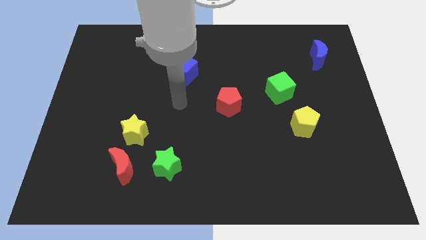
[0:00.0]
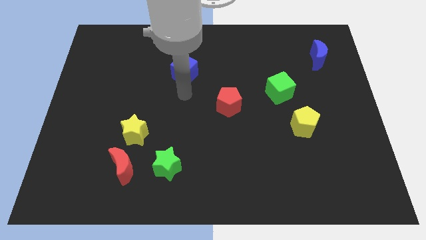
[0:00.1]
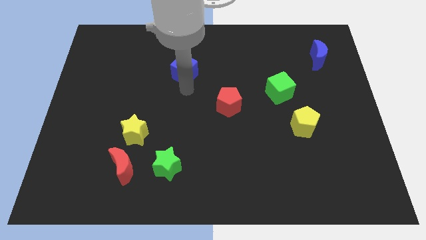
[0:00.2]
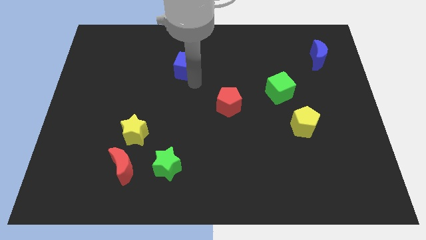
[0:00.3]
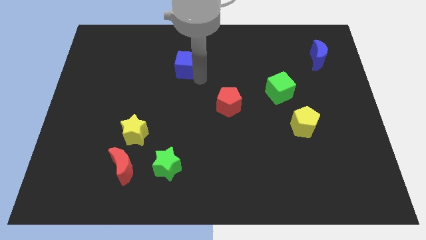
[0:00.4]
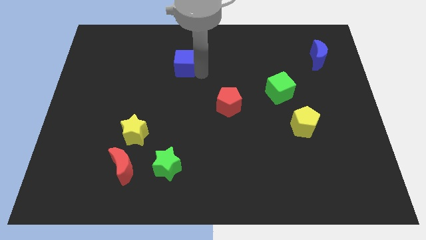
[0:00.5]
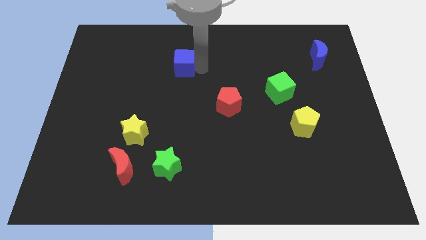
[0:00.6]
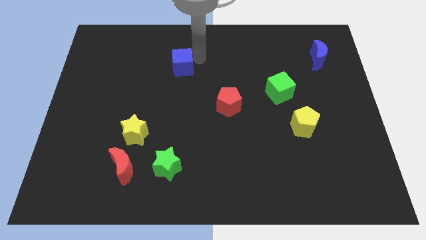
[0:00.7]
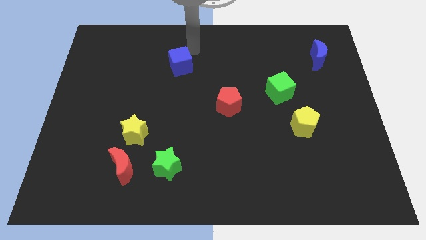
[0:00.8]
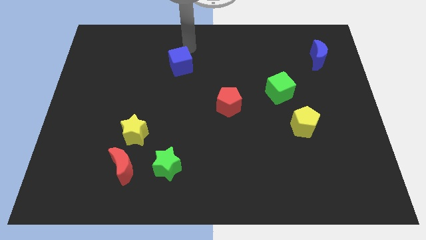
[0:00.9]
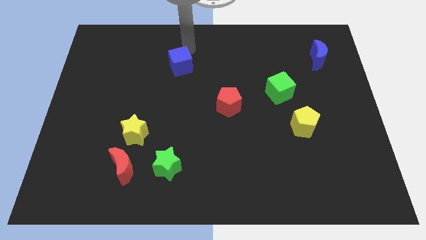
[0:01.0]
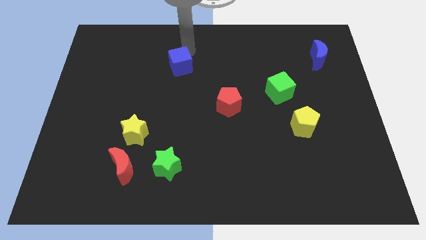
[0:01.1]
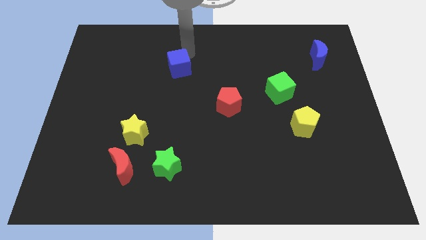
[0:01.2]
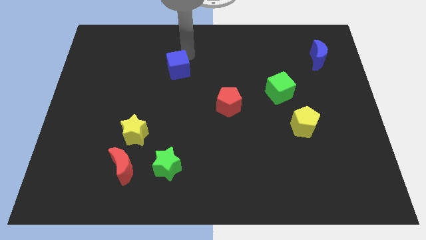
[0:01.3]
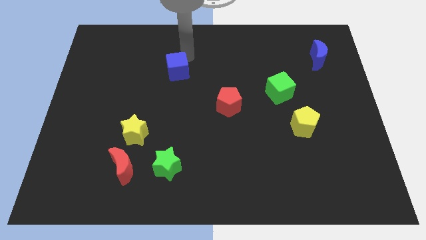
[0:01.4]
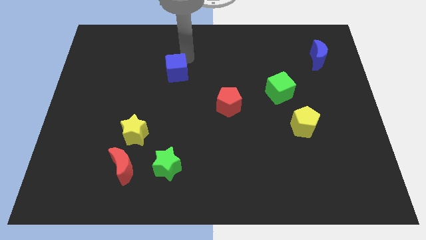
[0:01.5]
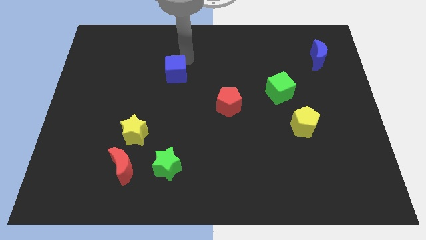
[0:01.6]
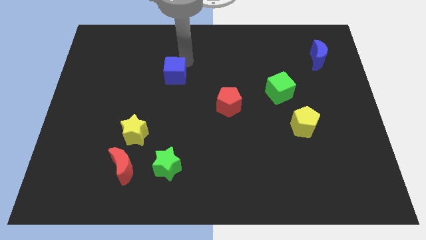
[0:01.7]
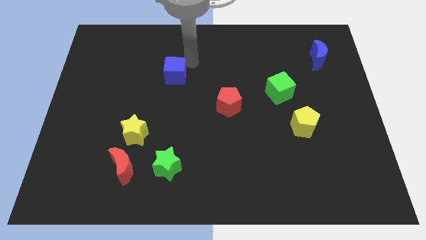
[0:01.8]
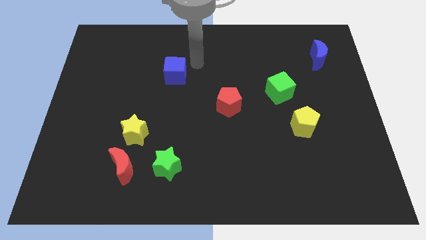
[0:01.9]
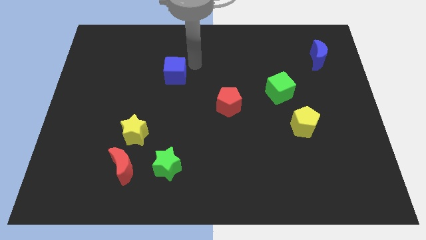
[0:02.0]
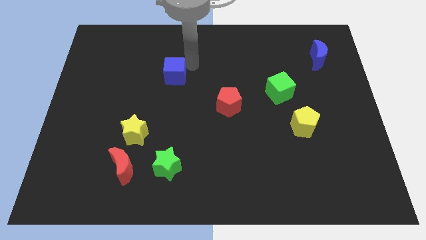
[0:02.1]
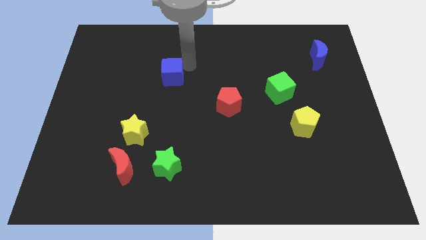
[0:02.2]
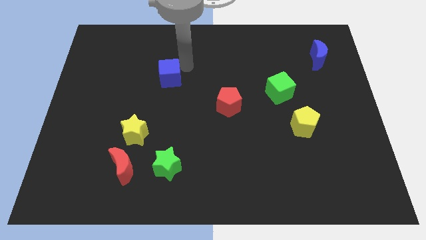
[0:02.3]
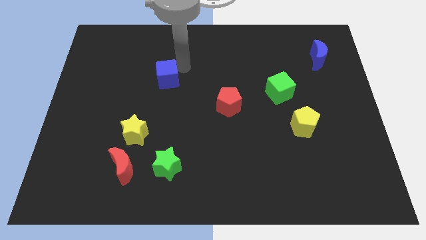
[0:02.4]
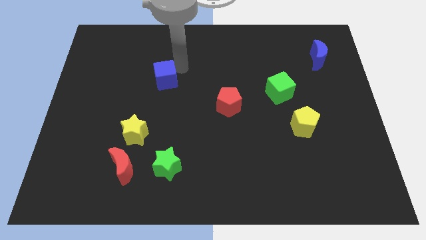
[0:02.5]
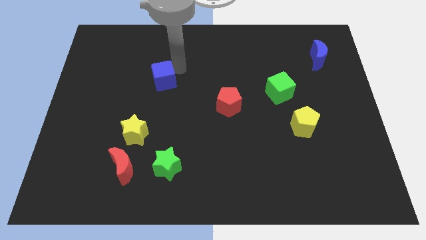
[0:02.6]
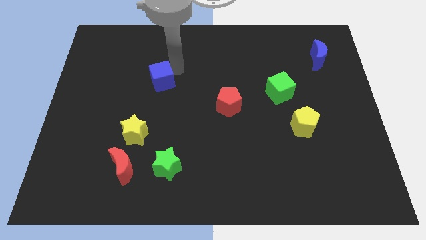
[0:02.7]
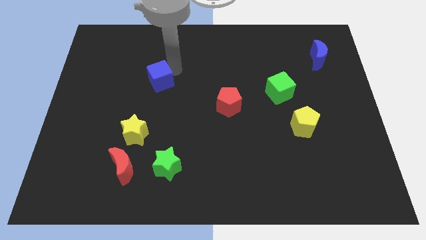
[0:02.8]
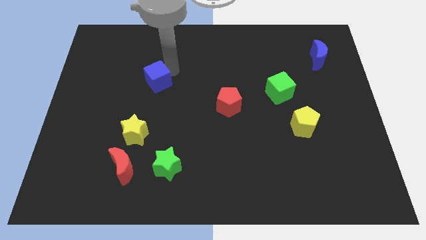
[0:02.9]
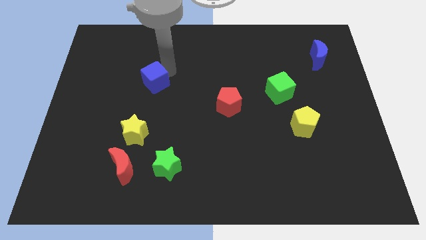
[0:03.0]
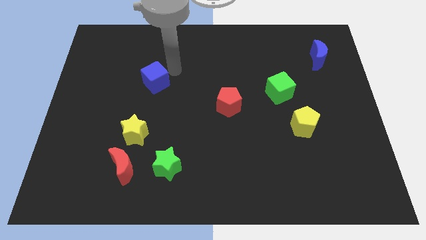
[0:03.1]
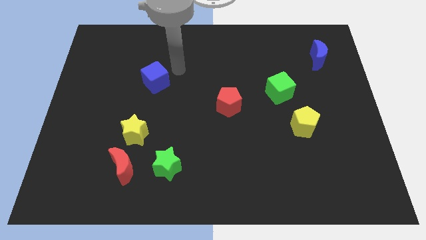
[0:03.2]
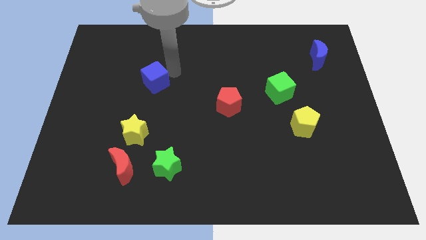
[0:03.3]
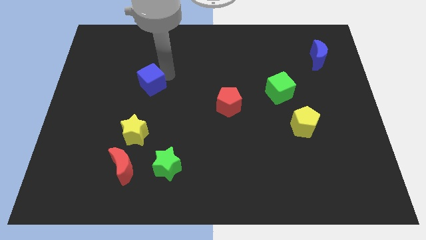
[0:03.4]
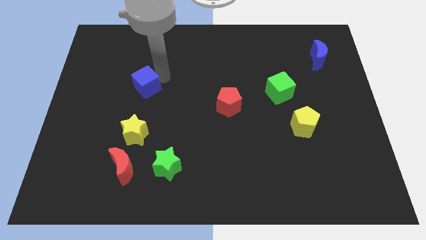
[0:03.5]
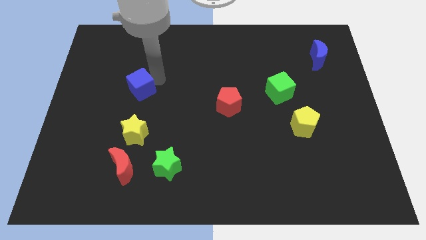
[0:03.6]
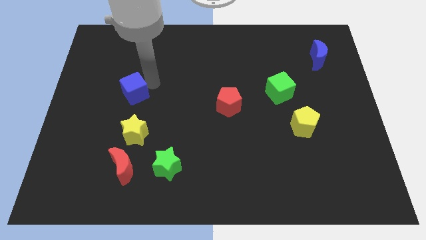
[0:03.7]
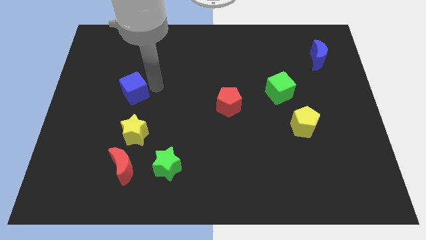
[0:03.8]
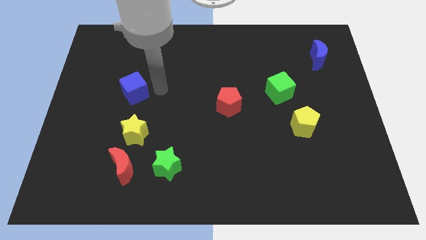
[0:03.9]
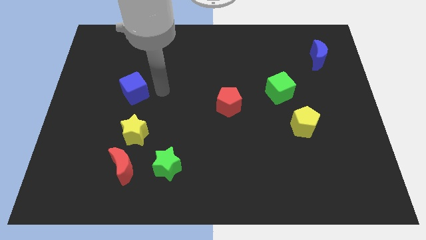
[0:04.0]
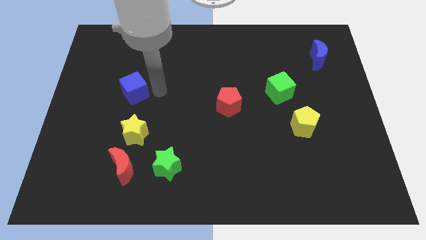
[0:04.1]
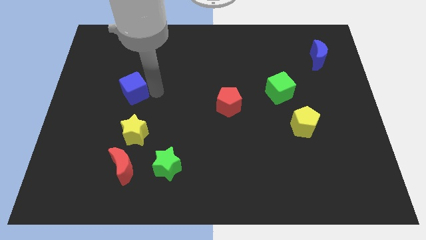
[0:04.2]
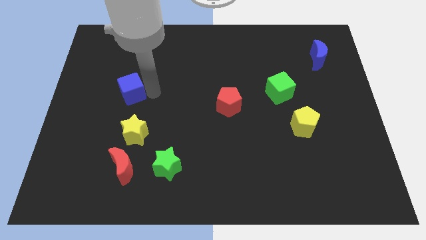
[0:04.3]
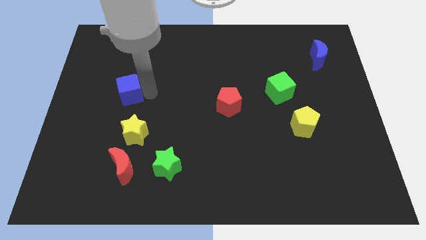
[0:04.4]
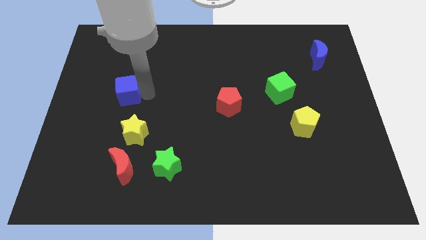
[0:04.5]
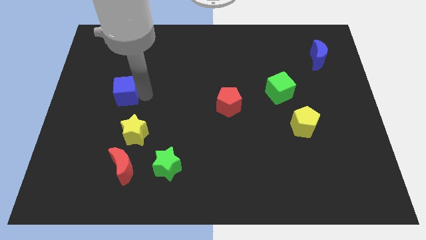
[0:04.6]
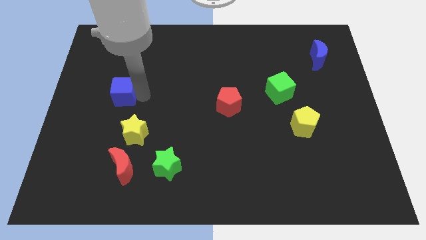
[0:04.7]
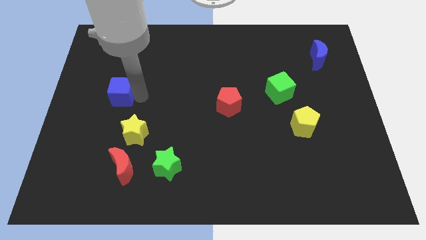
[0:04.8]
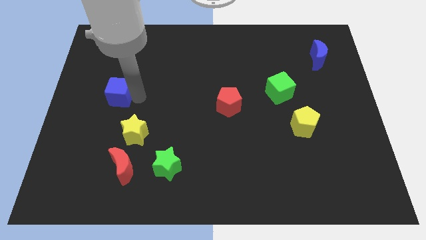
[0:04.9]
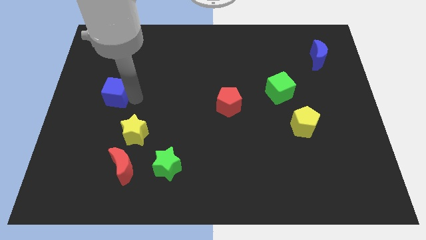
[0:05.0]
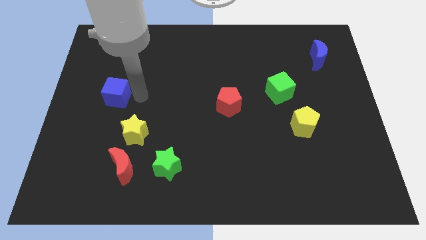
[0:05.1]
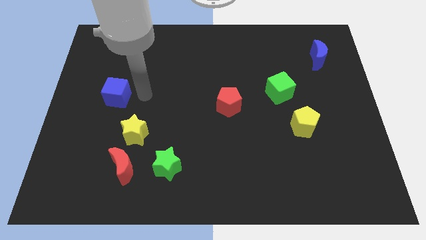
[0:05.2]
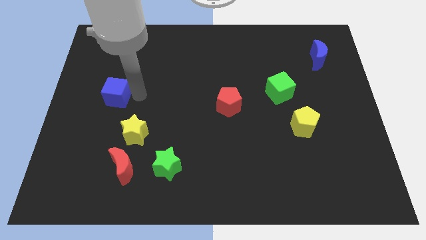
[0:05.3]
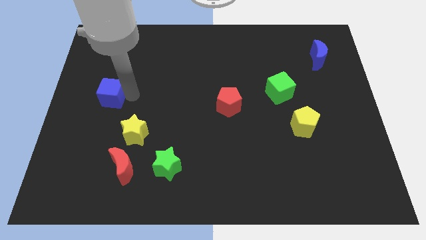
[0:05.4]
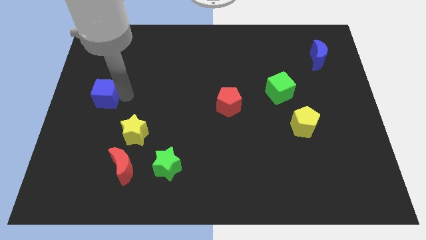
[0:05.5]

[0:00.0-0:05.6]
move the blue cube to the left side of the board

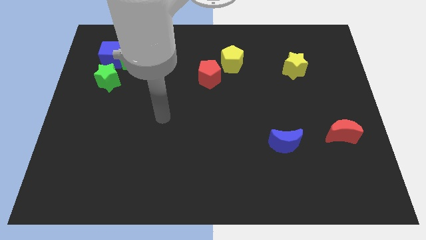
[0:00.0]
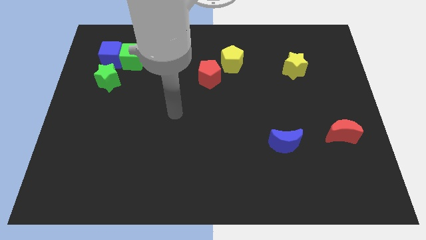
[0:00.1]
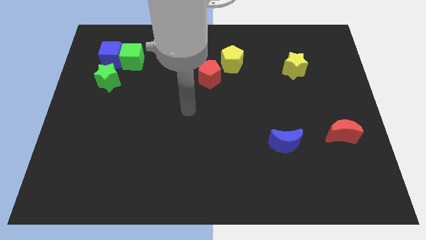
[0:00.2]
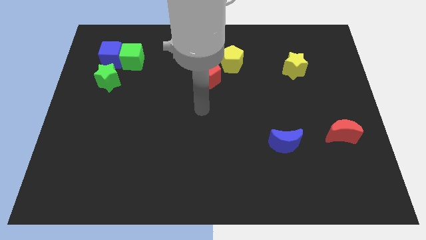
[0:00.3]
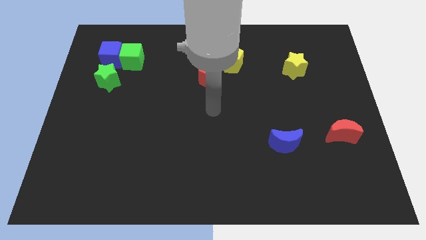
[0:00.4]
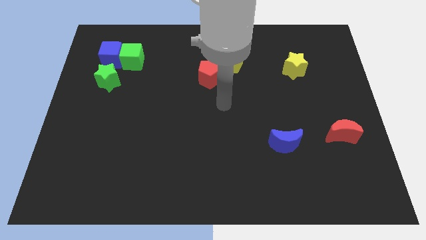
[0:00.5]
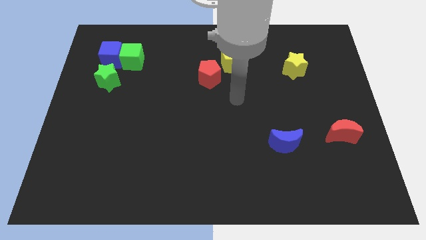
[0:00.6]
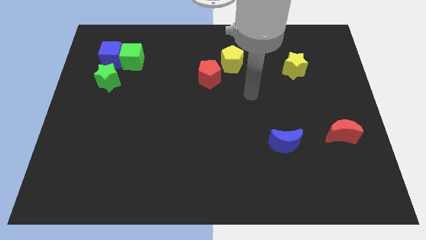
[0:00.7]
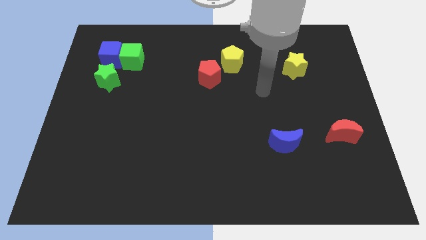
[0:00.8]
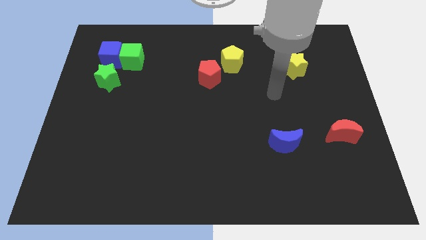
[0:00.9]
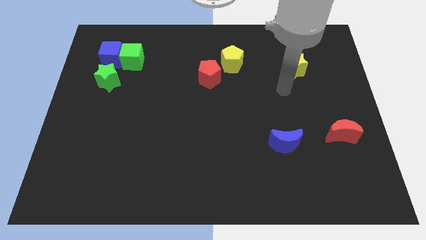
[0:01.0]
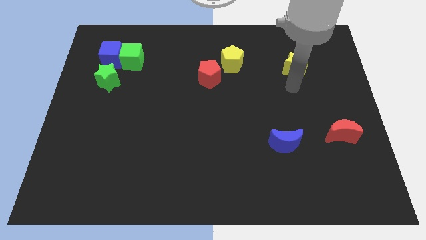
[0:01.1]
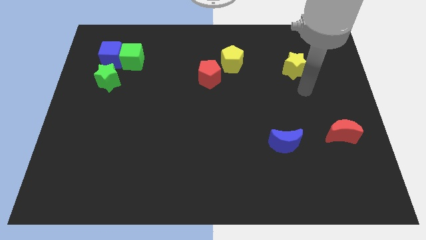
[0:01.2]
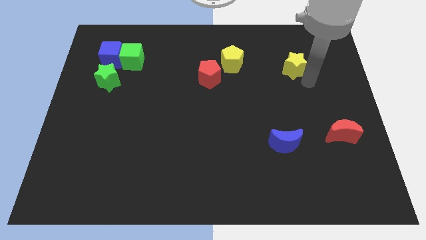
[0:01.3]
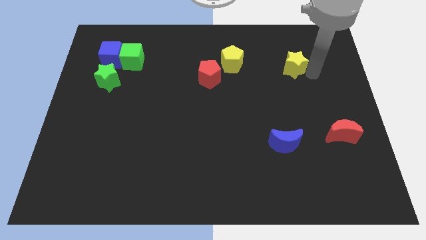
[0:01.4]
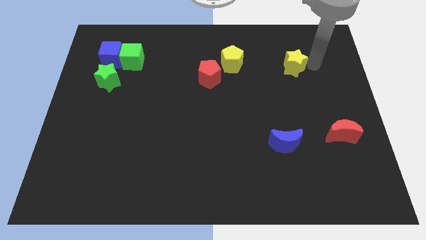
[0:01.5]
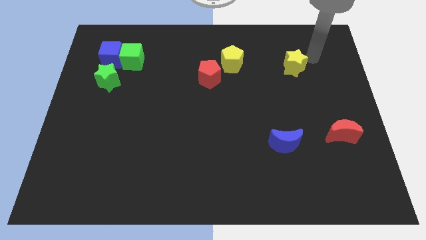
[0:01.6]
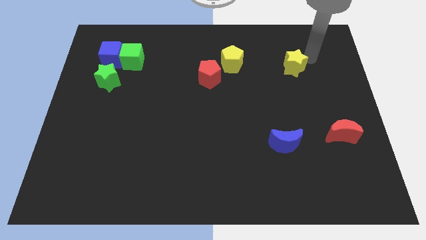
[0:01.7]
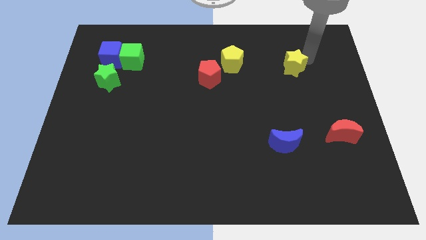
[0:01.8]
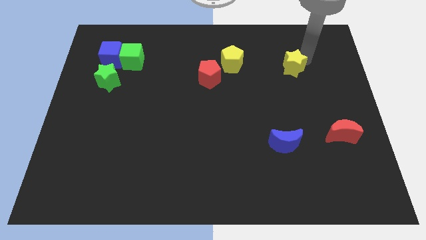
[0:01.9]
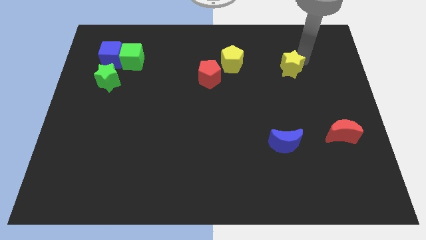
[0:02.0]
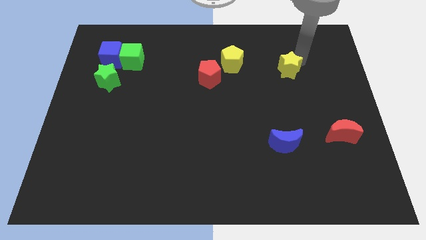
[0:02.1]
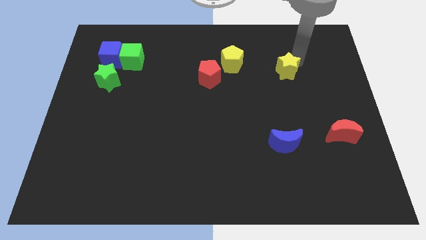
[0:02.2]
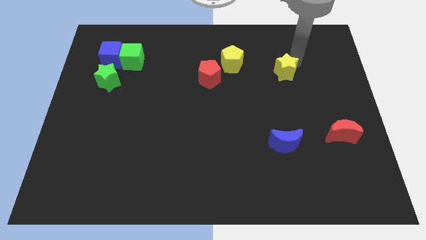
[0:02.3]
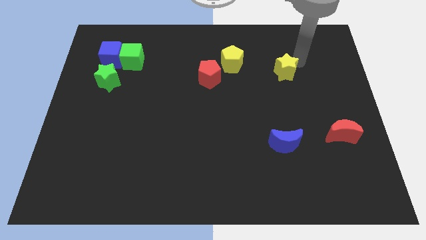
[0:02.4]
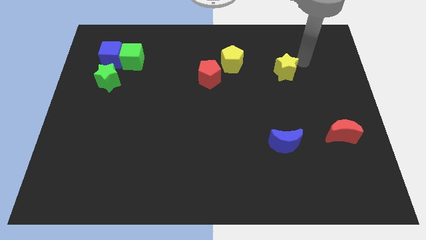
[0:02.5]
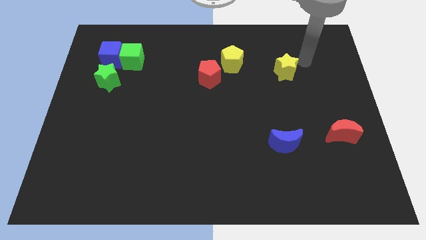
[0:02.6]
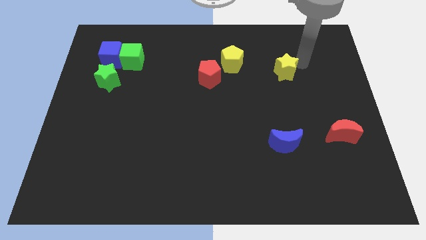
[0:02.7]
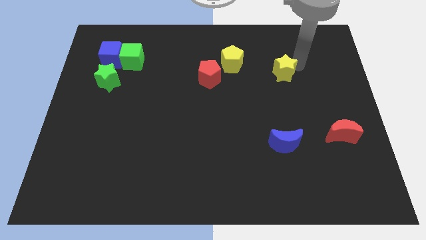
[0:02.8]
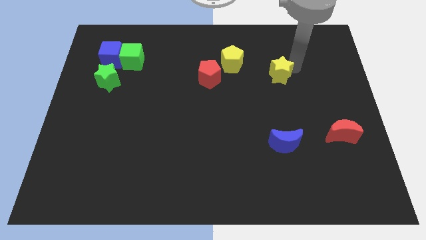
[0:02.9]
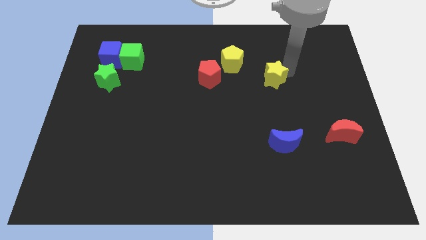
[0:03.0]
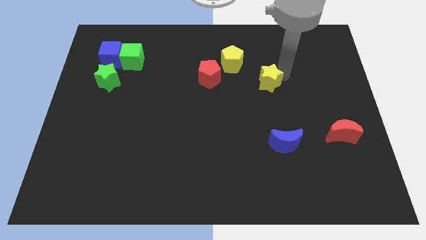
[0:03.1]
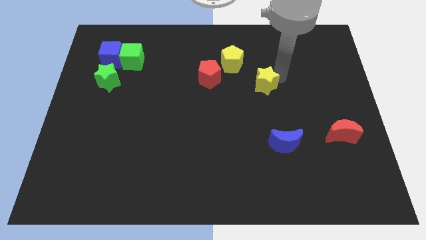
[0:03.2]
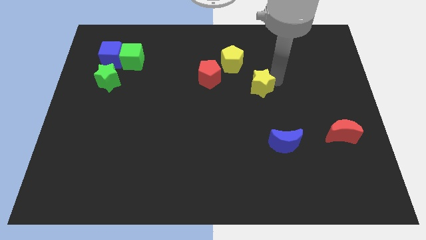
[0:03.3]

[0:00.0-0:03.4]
move the yellow star to the center of the board
